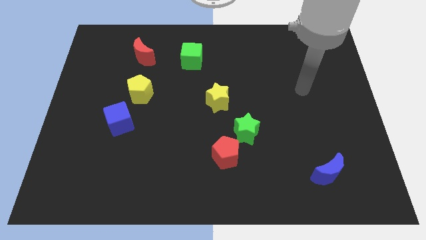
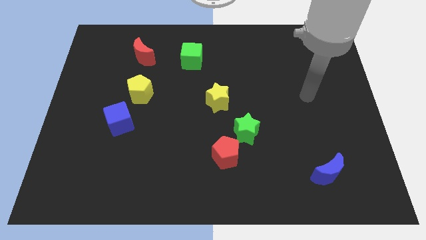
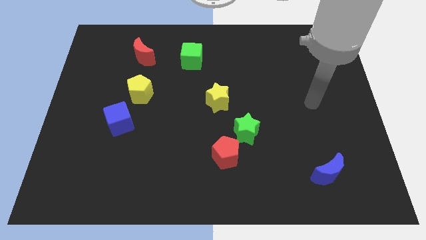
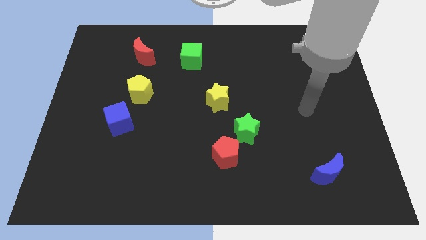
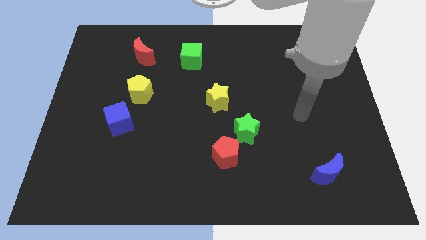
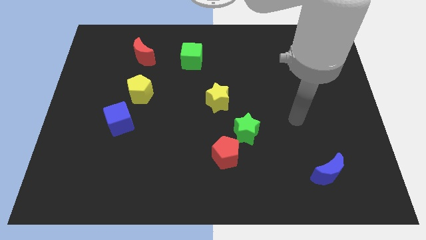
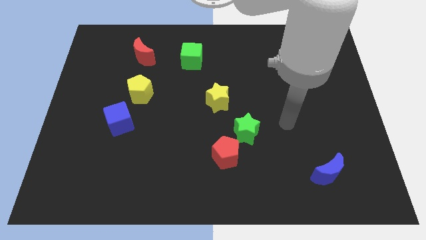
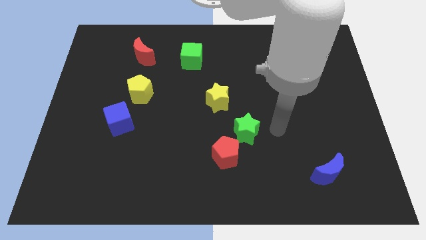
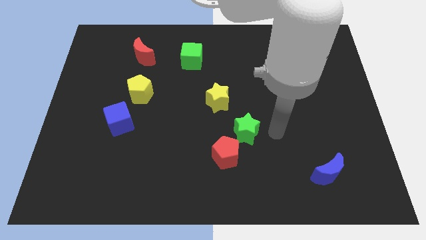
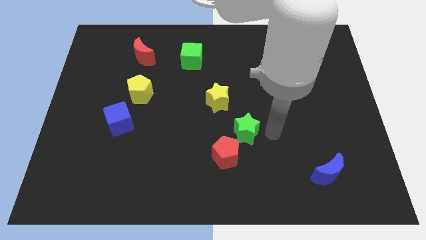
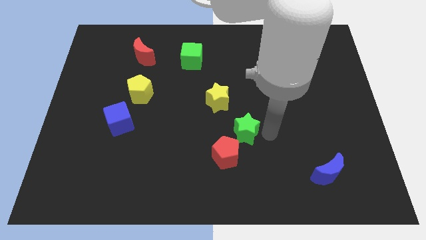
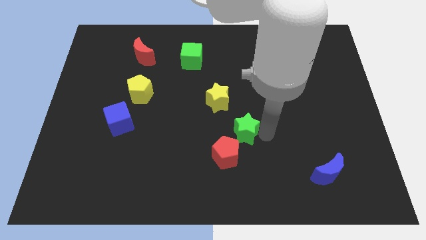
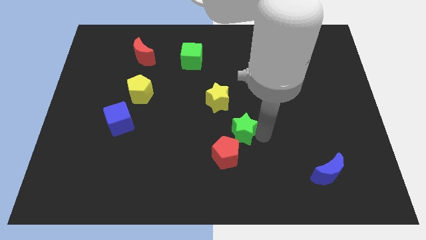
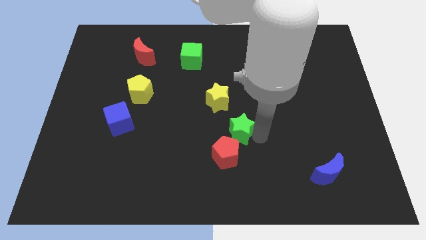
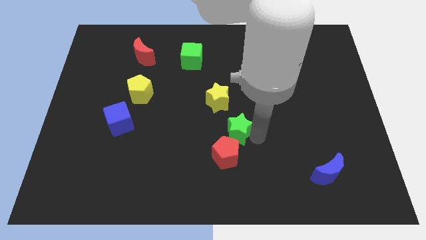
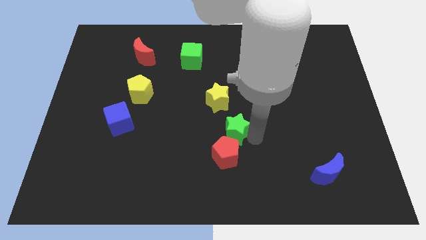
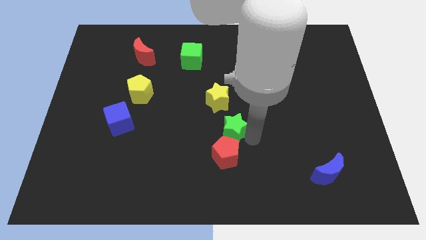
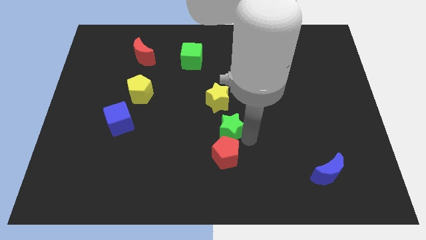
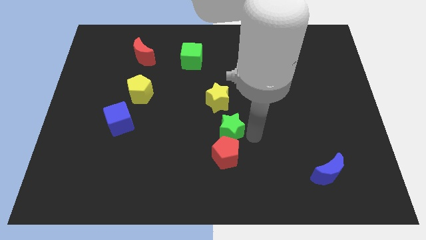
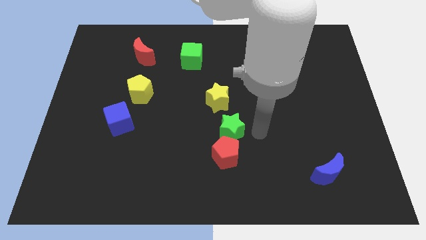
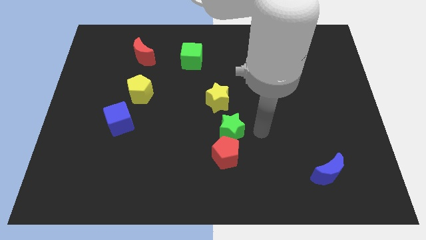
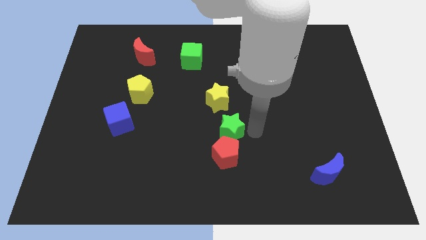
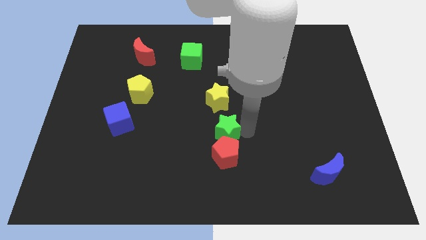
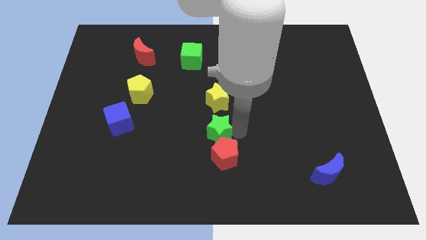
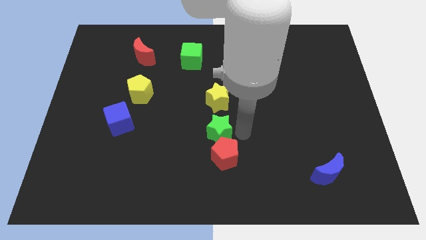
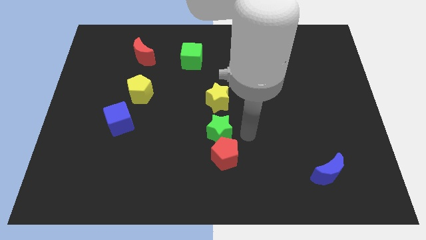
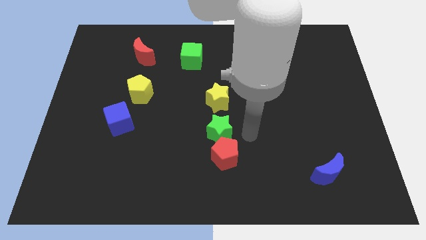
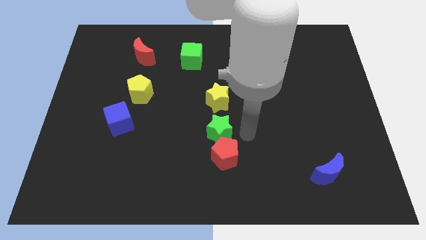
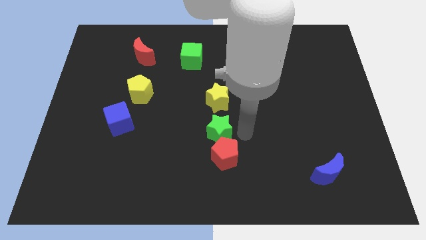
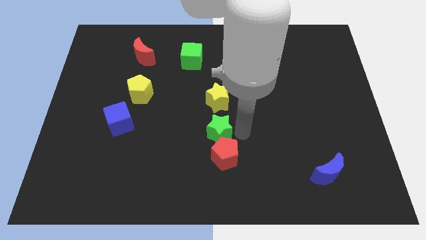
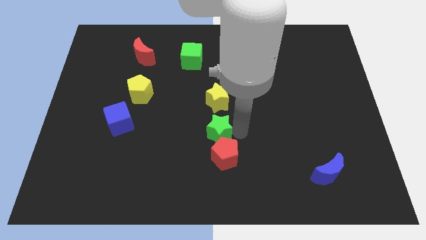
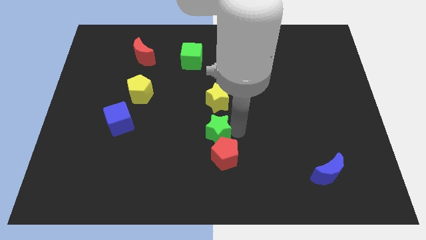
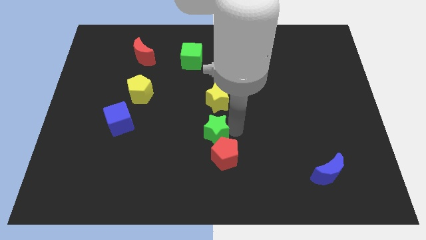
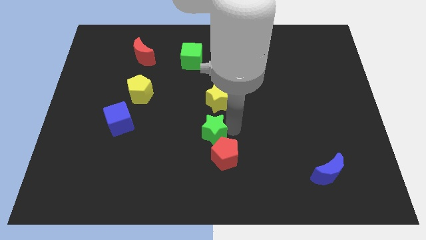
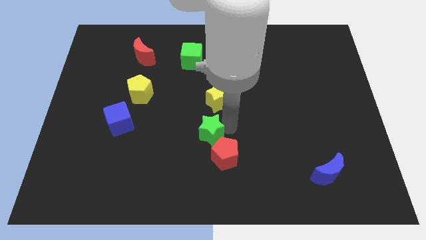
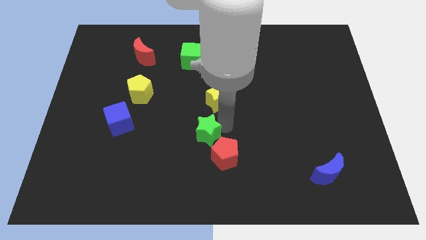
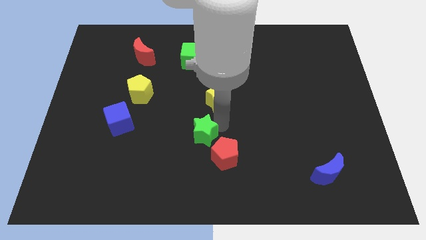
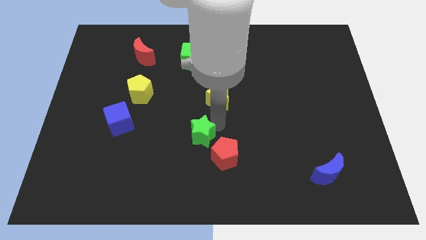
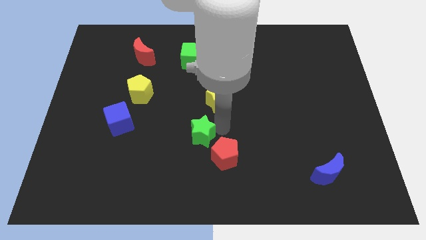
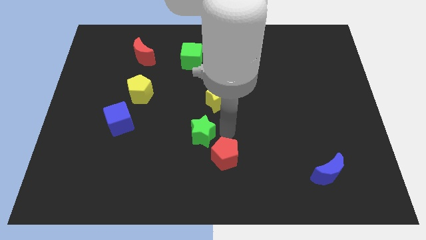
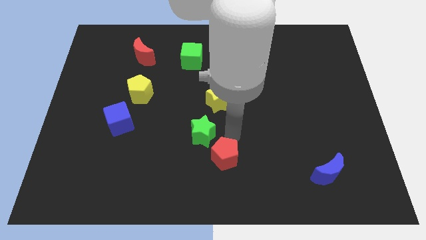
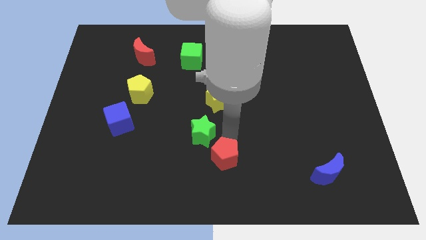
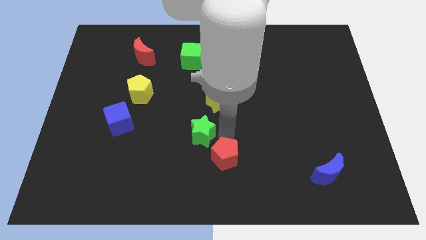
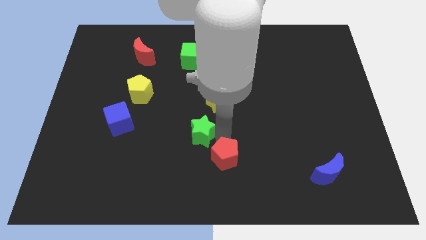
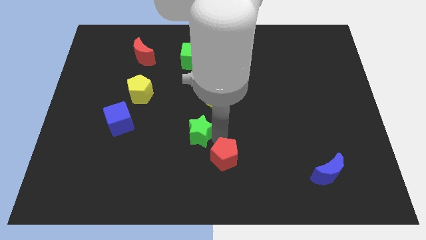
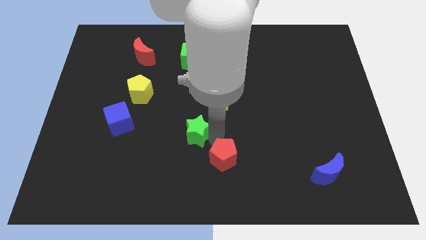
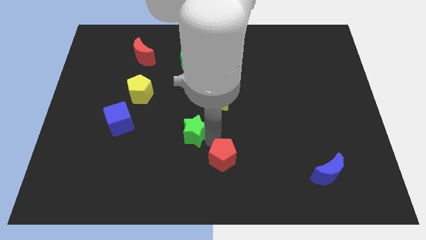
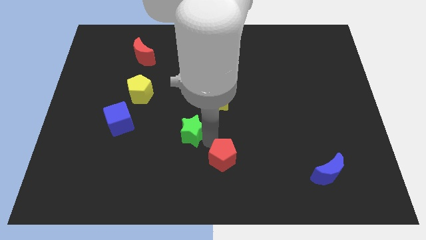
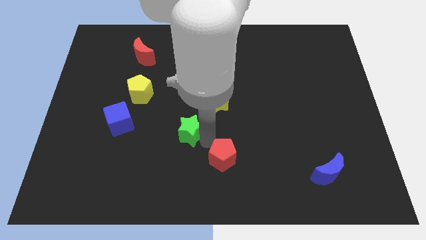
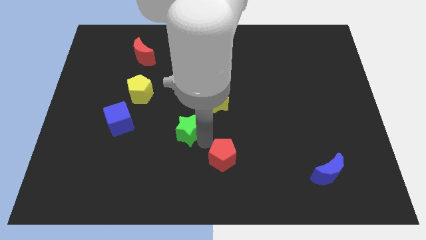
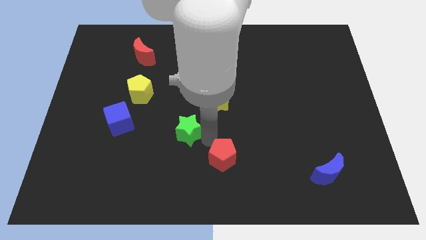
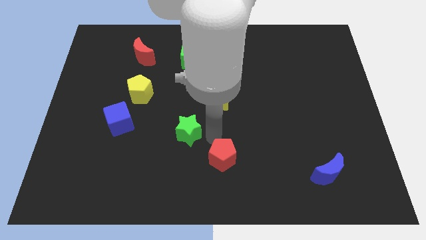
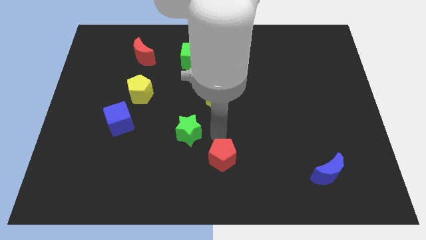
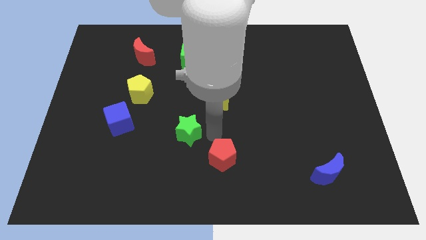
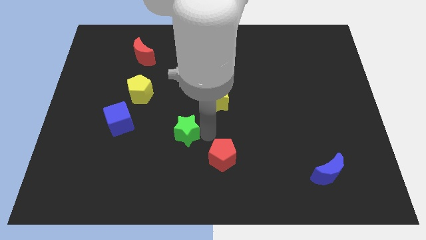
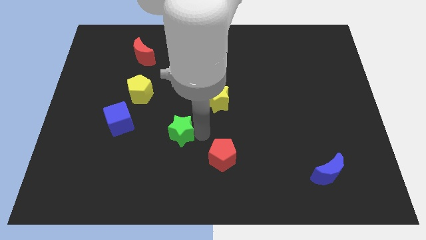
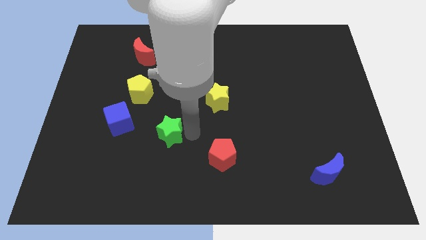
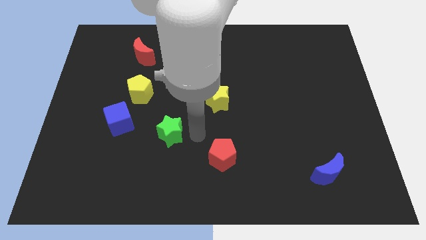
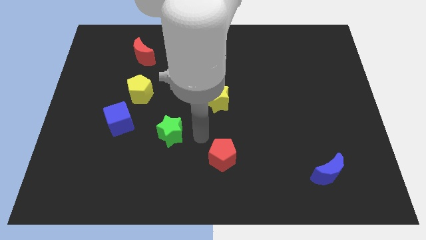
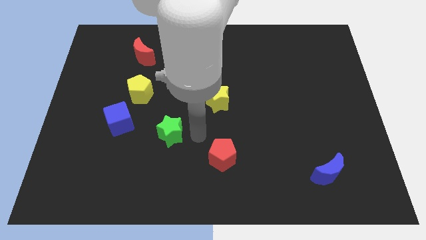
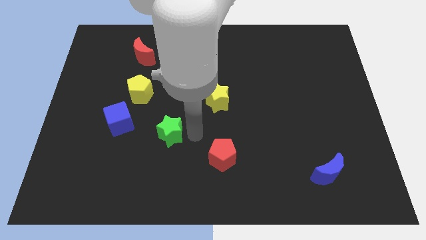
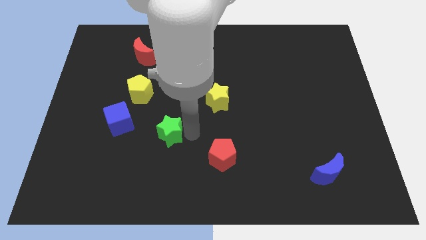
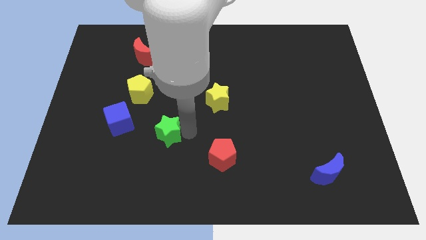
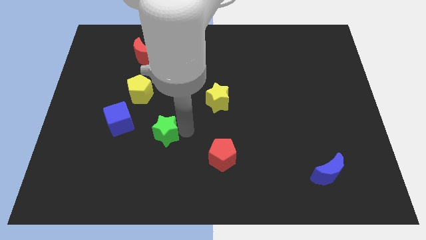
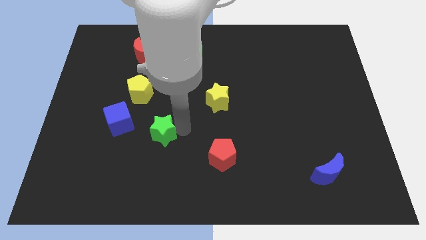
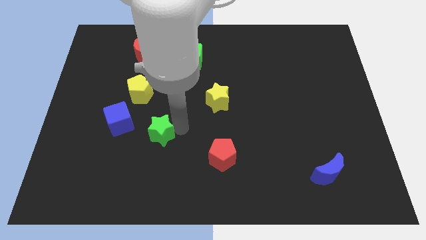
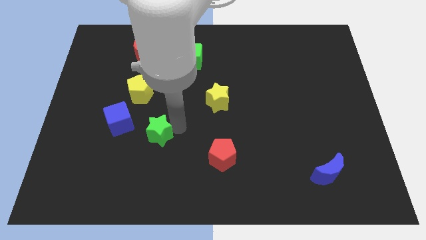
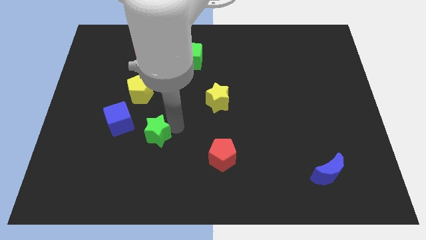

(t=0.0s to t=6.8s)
move the green star left

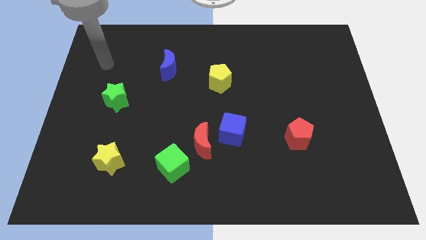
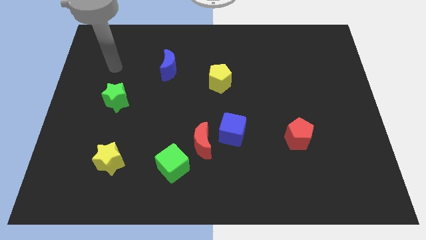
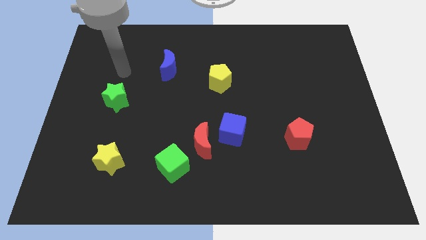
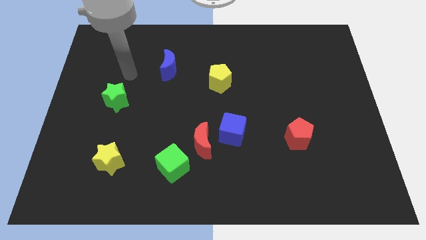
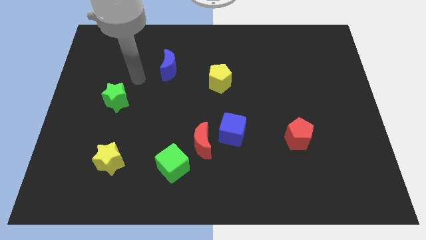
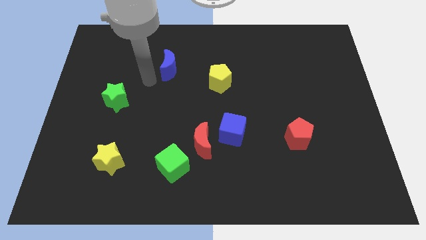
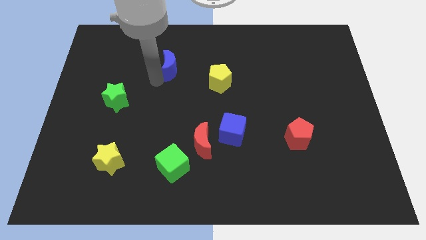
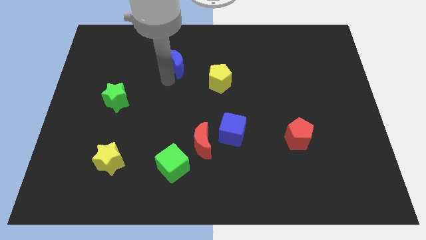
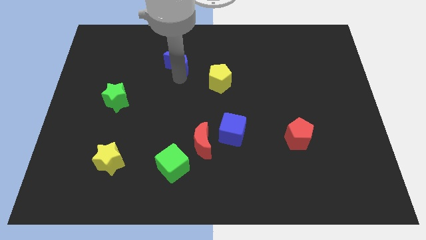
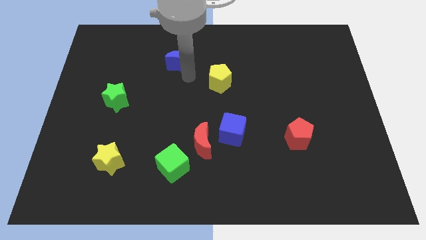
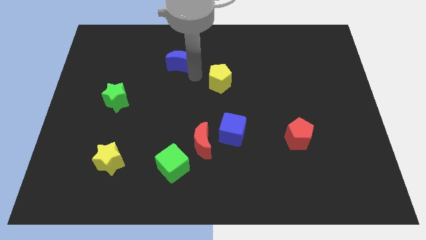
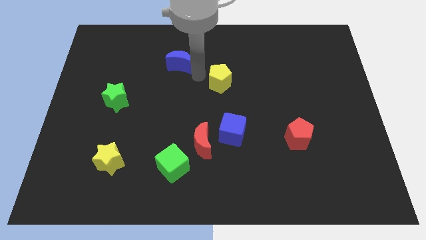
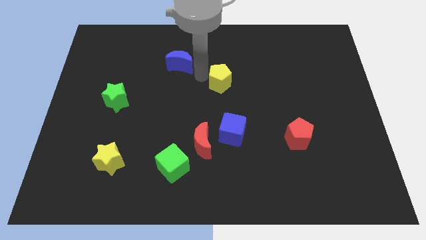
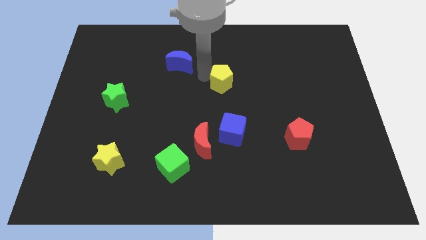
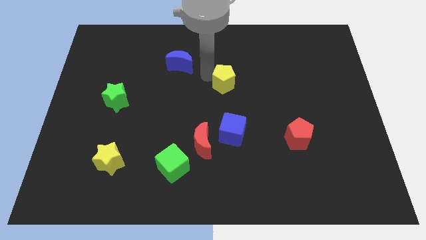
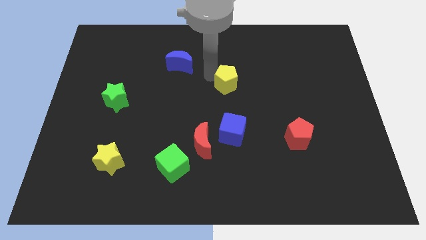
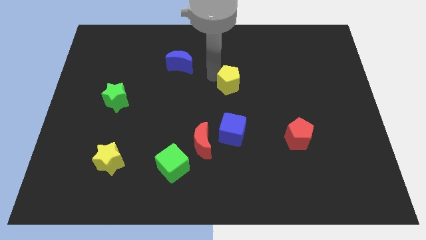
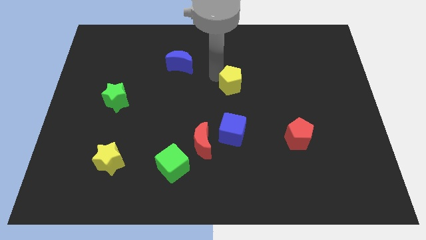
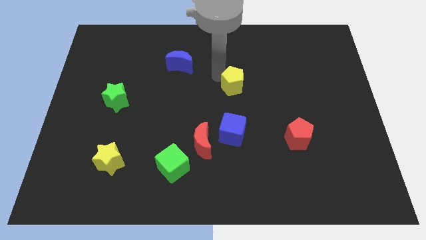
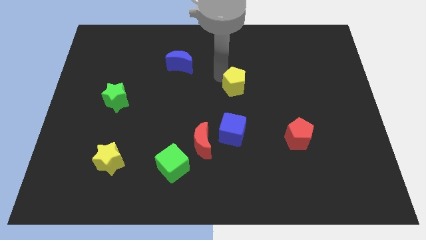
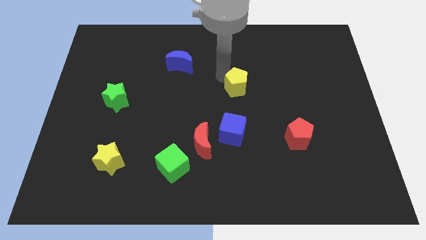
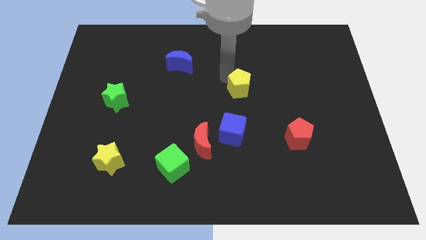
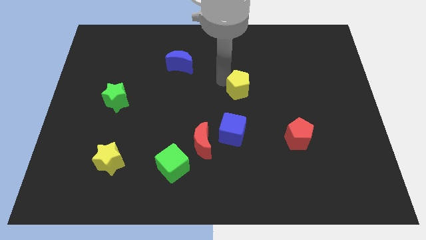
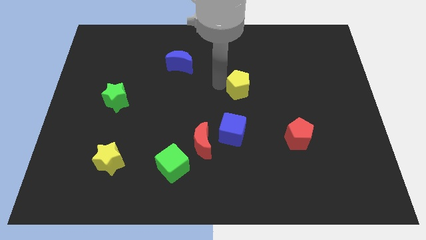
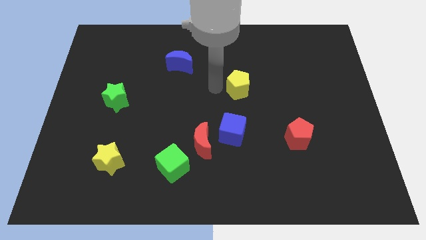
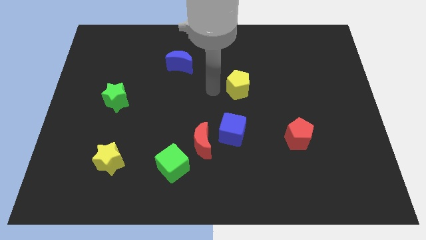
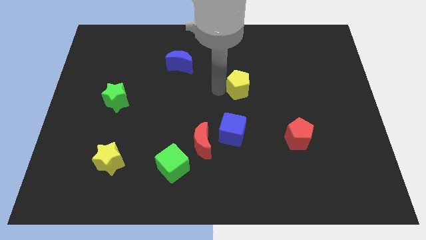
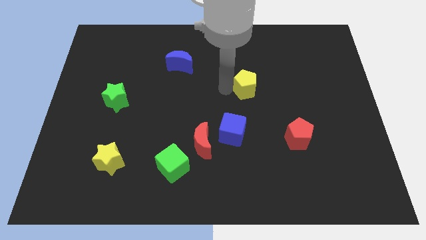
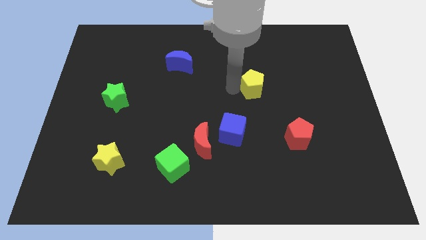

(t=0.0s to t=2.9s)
slightly push the yellow pentagon to the right
